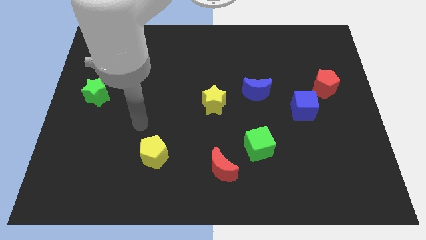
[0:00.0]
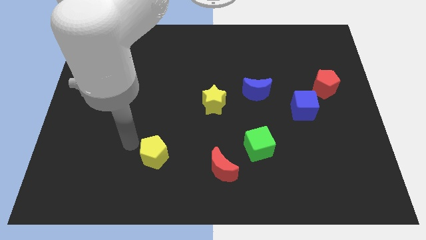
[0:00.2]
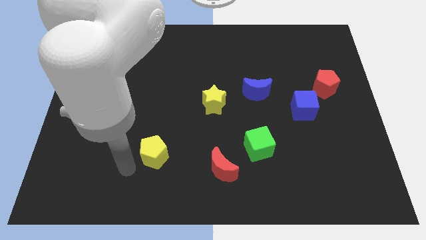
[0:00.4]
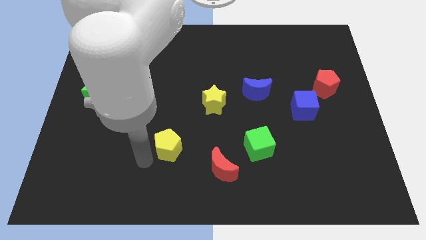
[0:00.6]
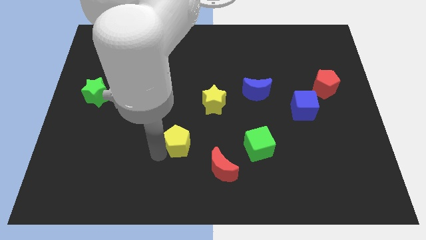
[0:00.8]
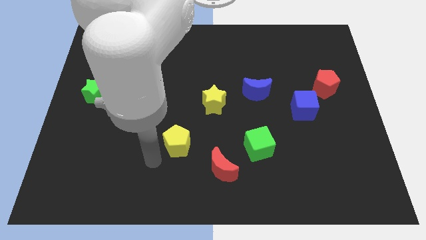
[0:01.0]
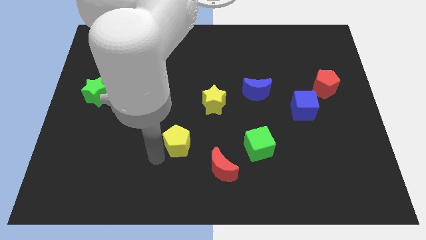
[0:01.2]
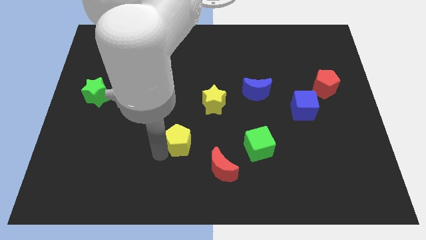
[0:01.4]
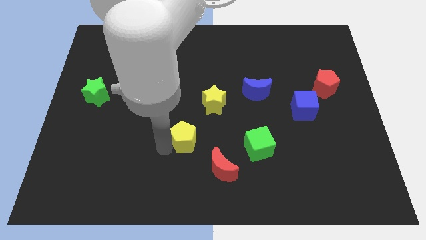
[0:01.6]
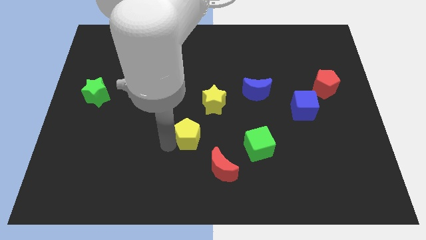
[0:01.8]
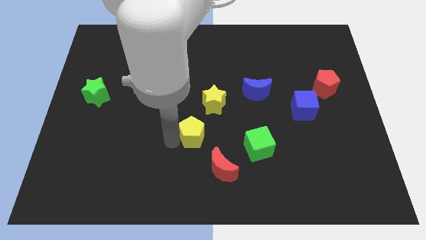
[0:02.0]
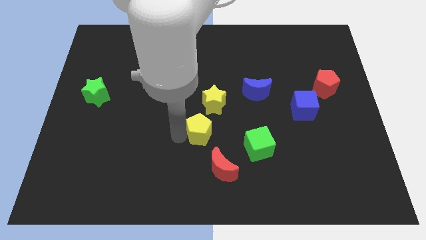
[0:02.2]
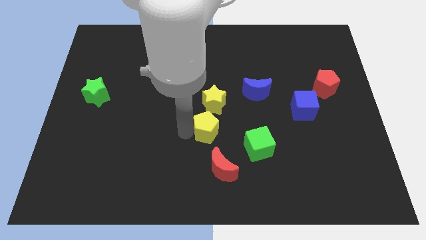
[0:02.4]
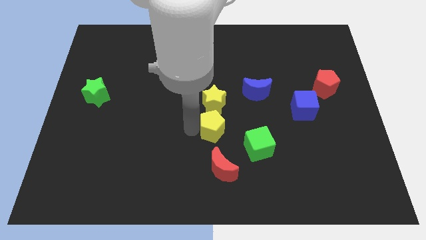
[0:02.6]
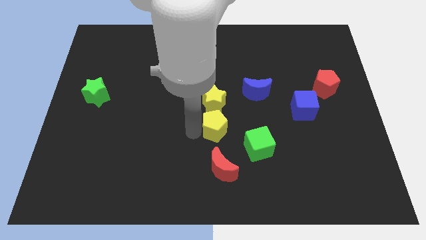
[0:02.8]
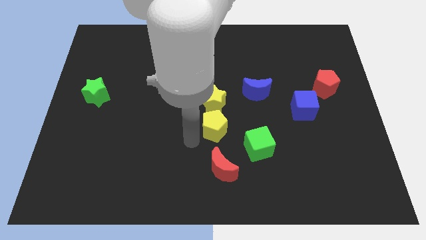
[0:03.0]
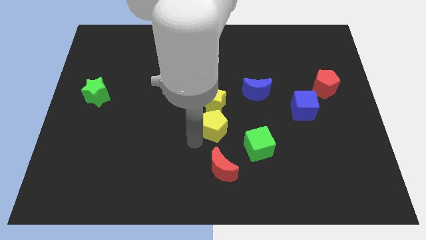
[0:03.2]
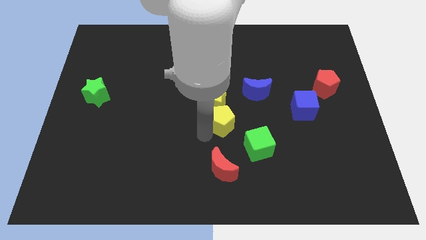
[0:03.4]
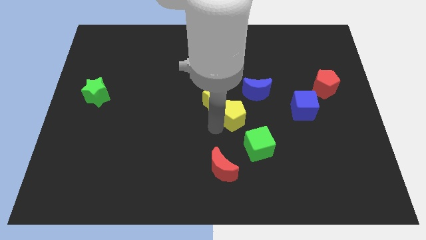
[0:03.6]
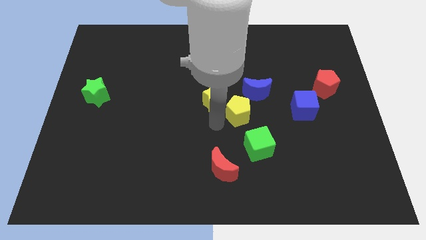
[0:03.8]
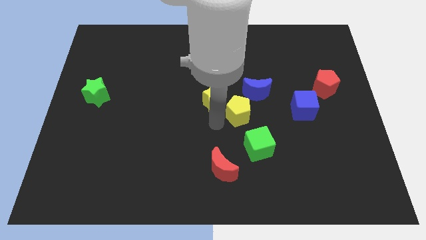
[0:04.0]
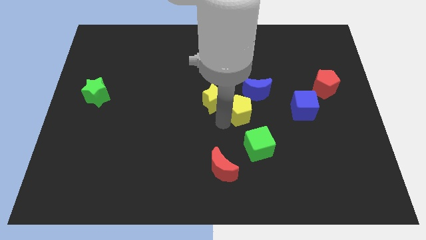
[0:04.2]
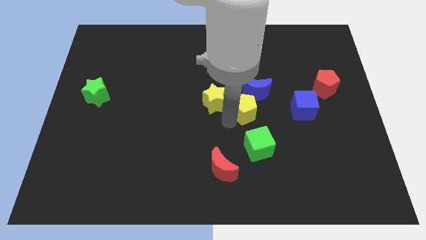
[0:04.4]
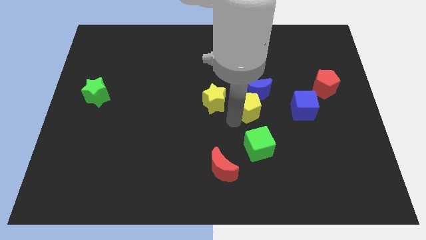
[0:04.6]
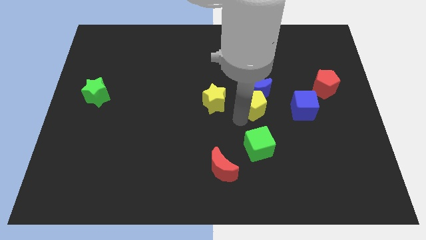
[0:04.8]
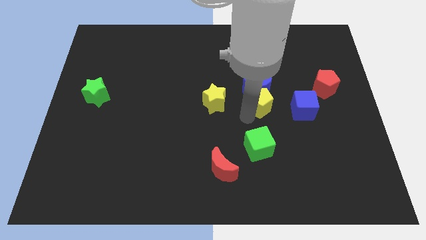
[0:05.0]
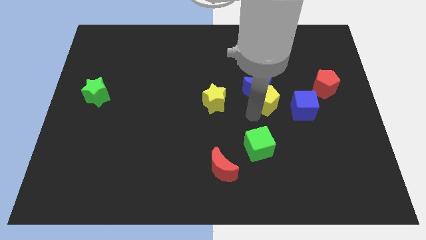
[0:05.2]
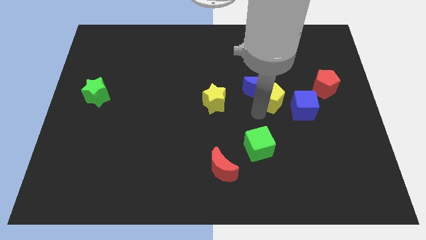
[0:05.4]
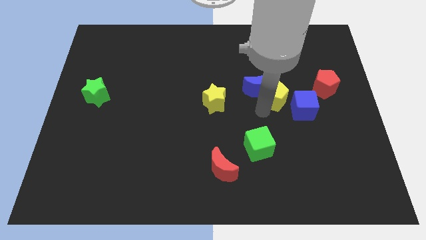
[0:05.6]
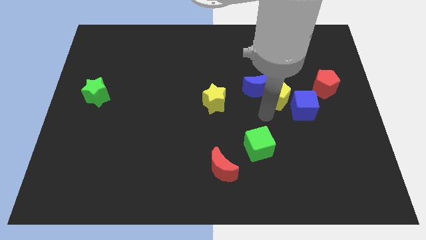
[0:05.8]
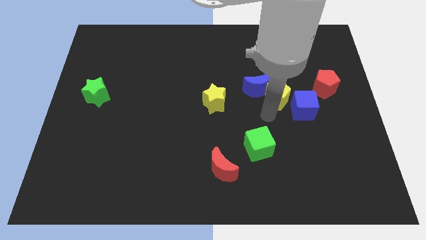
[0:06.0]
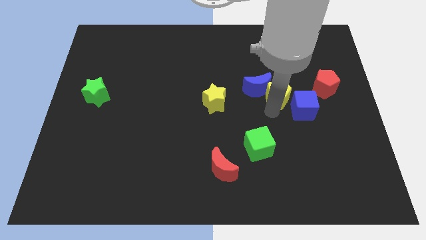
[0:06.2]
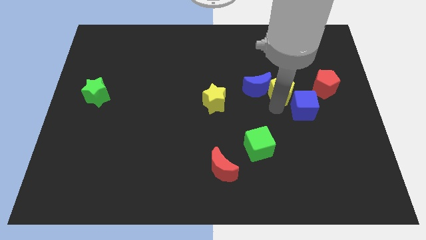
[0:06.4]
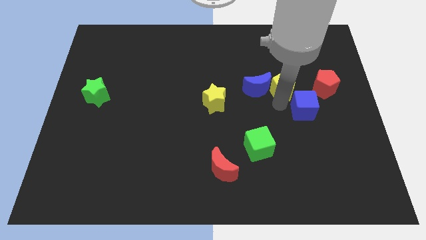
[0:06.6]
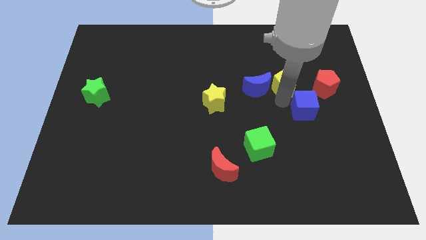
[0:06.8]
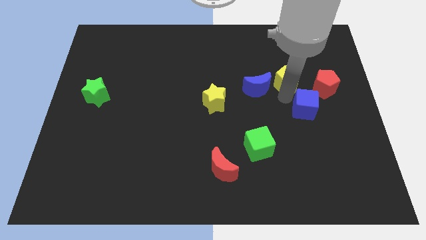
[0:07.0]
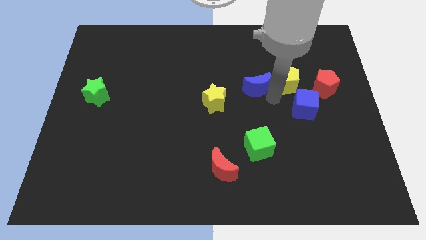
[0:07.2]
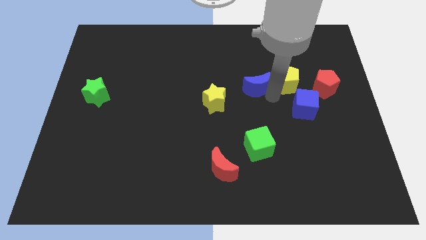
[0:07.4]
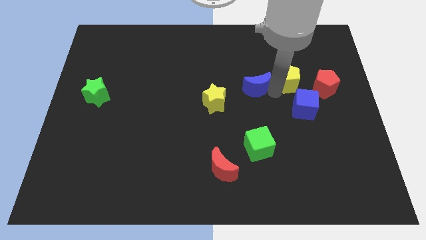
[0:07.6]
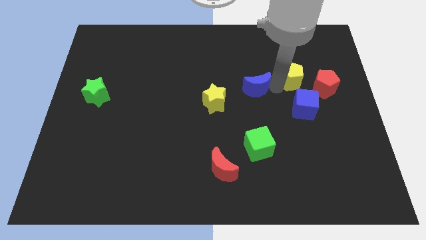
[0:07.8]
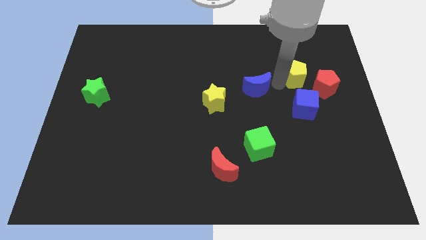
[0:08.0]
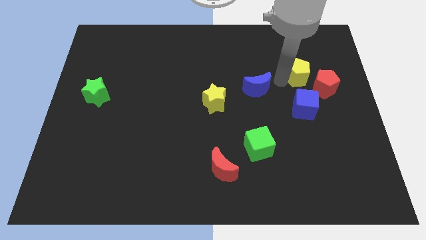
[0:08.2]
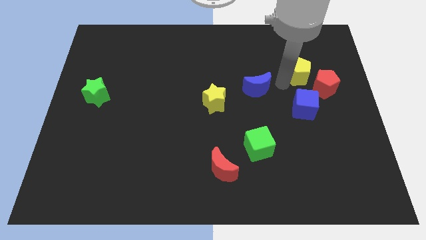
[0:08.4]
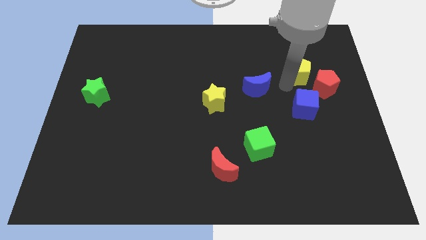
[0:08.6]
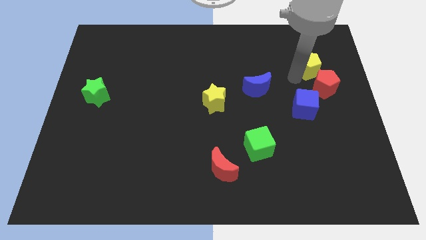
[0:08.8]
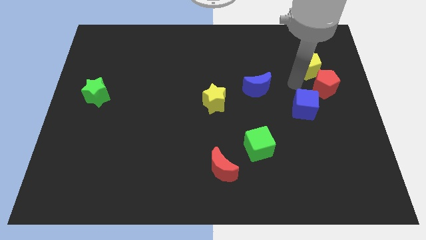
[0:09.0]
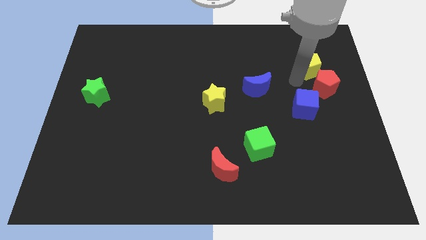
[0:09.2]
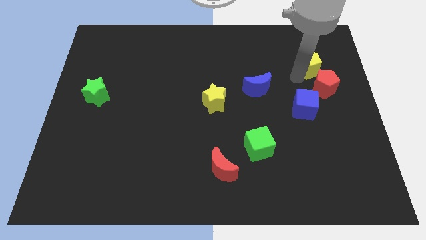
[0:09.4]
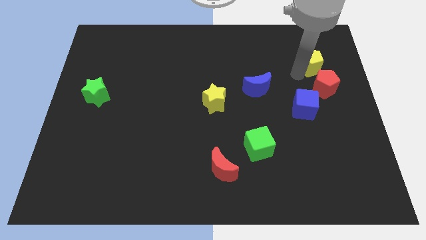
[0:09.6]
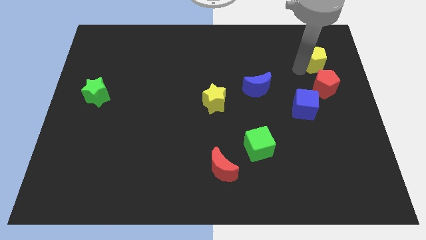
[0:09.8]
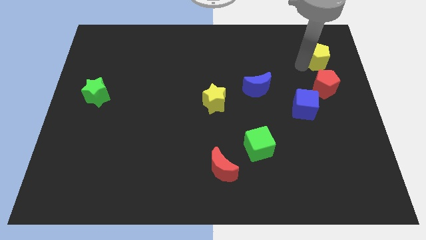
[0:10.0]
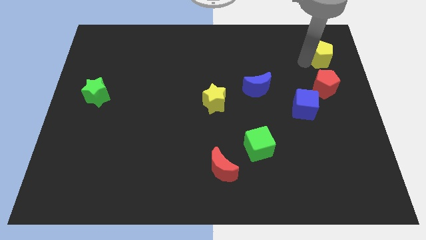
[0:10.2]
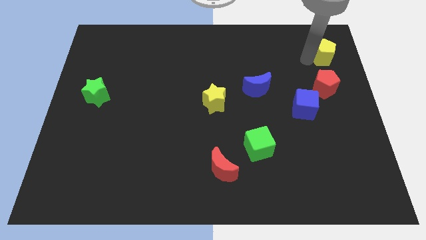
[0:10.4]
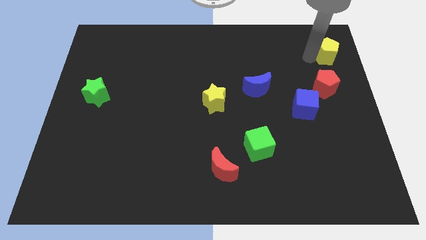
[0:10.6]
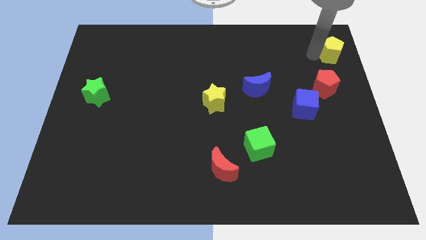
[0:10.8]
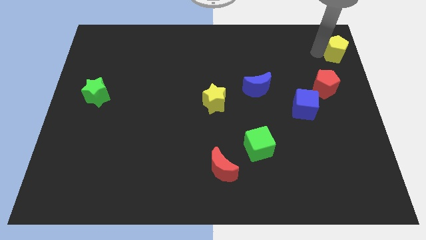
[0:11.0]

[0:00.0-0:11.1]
put the yellow pentagon to the top right corner
